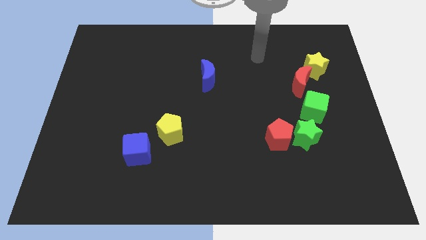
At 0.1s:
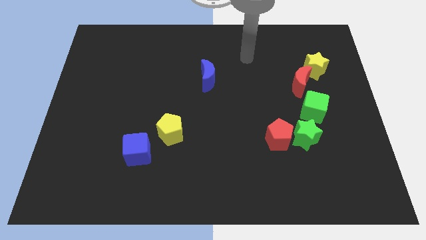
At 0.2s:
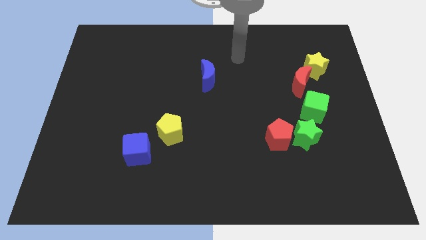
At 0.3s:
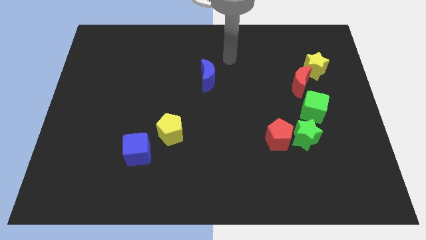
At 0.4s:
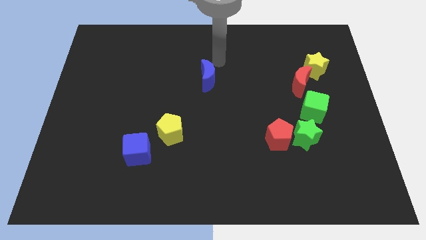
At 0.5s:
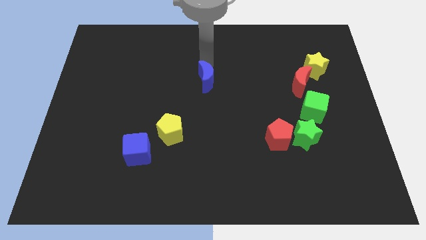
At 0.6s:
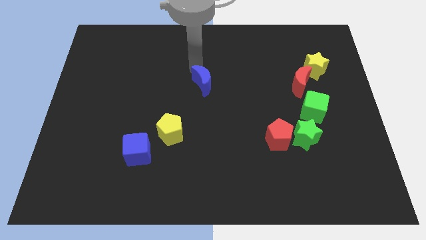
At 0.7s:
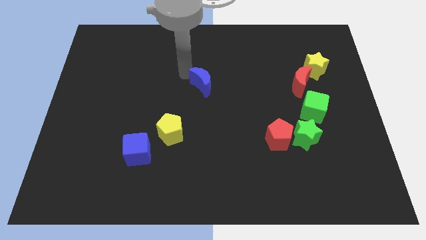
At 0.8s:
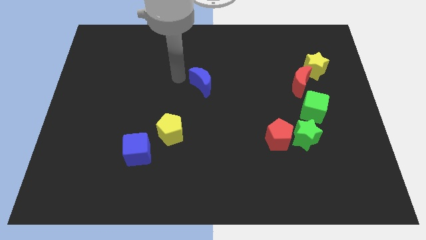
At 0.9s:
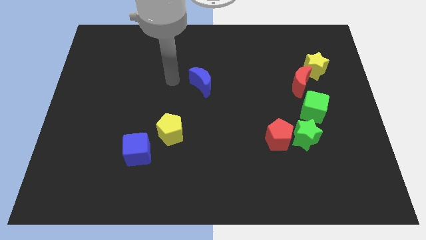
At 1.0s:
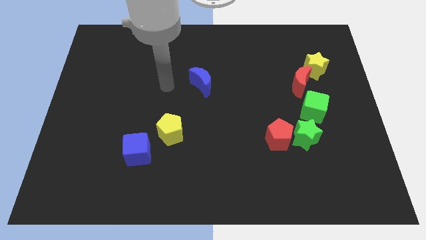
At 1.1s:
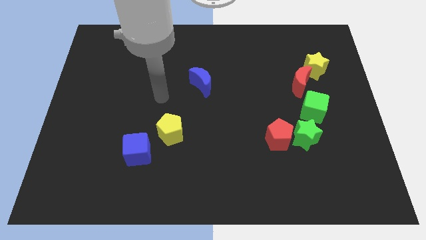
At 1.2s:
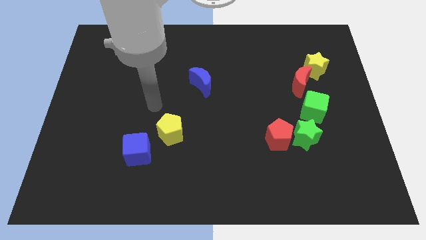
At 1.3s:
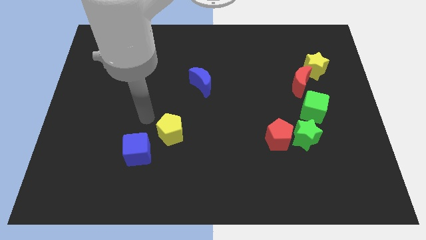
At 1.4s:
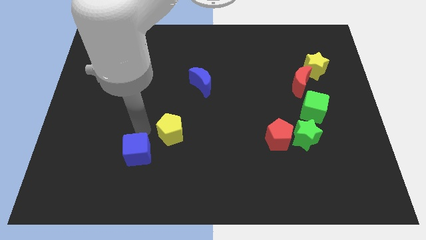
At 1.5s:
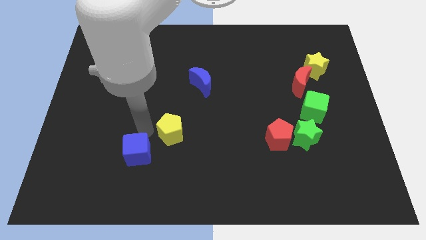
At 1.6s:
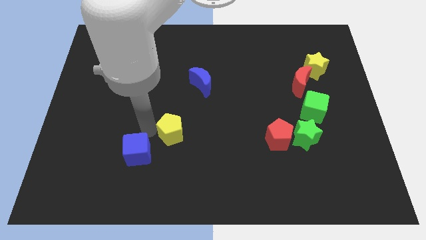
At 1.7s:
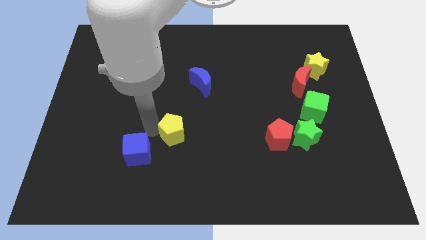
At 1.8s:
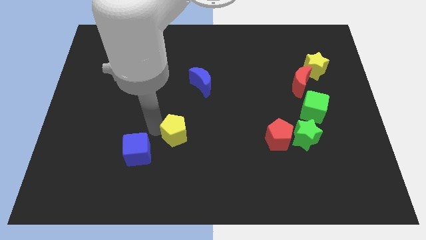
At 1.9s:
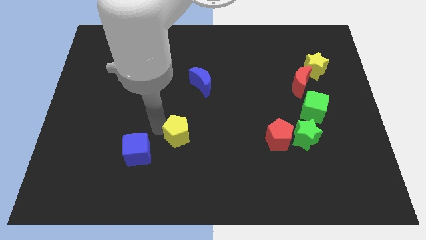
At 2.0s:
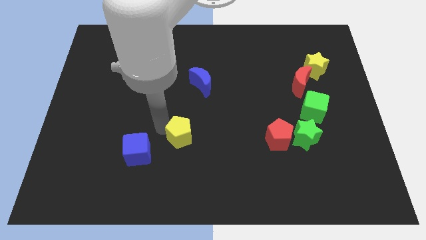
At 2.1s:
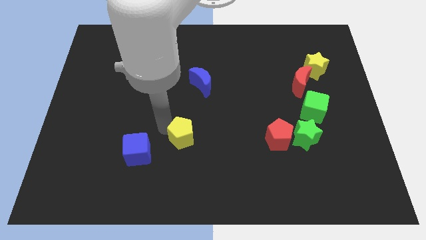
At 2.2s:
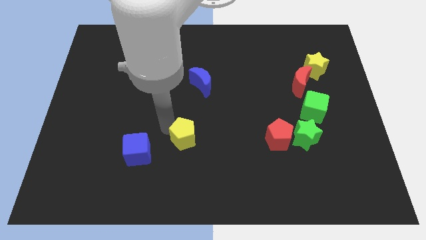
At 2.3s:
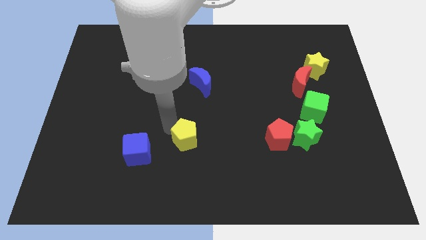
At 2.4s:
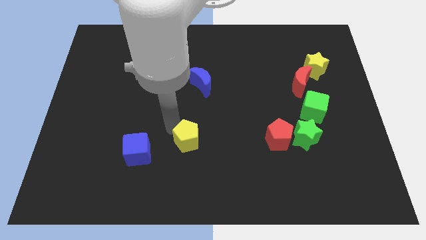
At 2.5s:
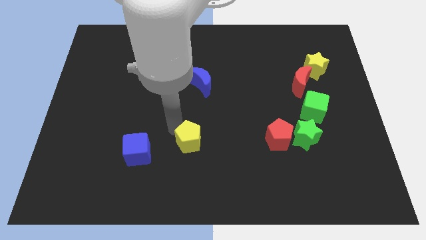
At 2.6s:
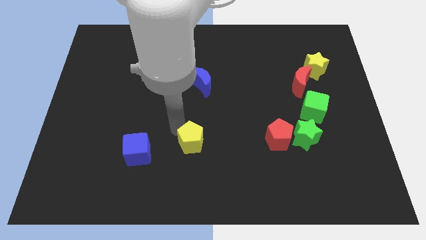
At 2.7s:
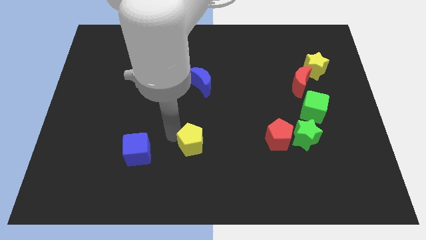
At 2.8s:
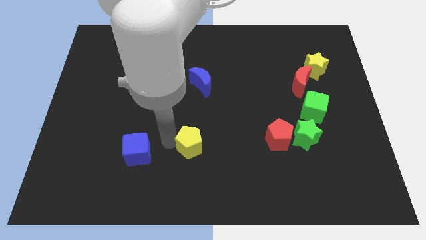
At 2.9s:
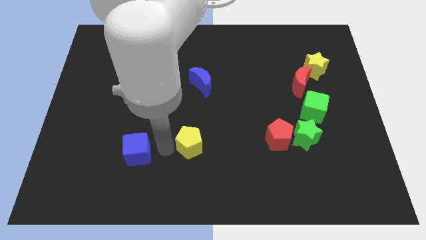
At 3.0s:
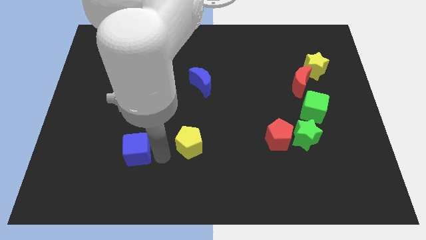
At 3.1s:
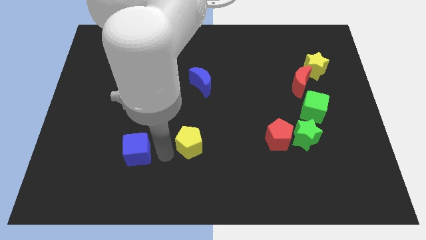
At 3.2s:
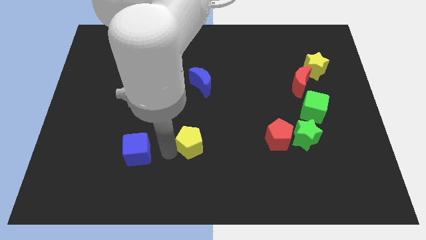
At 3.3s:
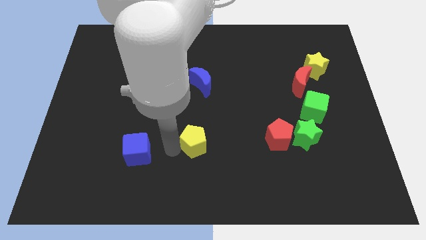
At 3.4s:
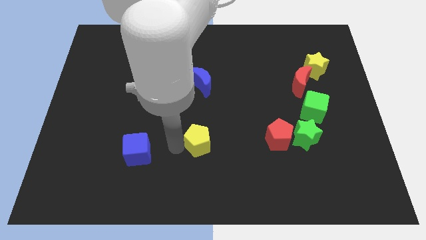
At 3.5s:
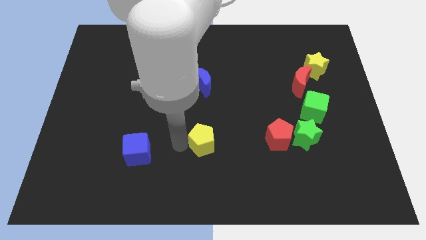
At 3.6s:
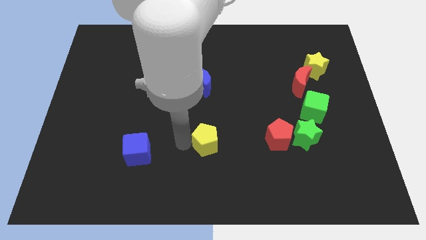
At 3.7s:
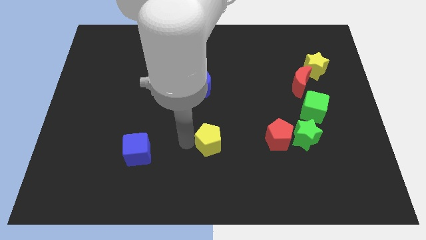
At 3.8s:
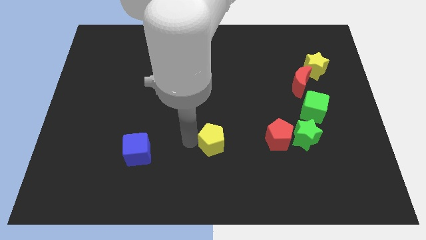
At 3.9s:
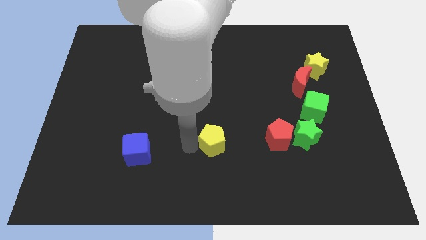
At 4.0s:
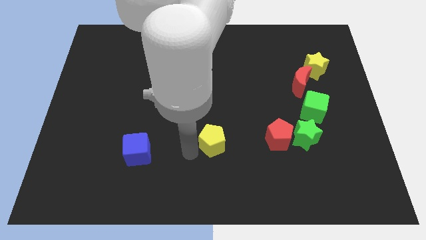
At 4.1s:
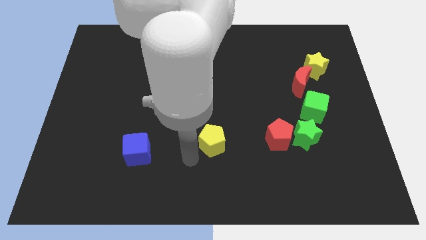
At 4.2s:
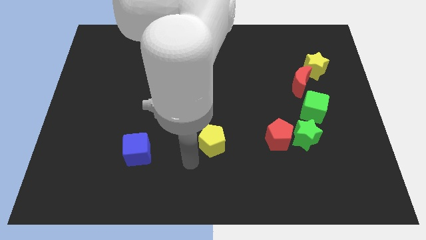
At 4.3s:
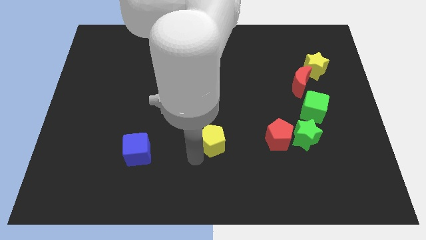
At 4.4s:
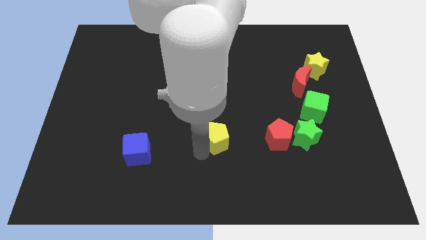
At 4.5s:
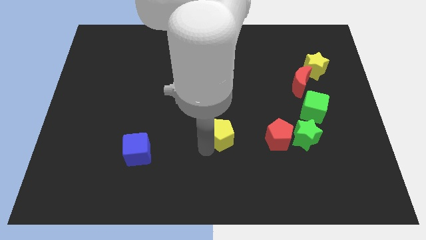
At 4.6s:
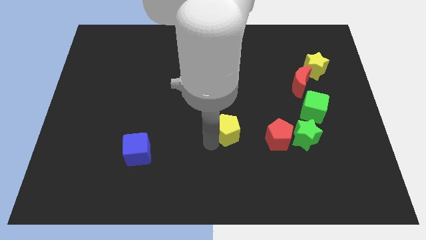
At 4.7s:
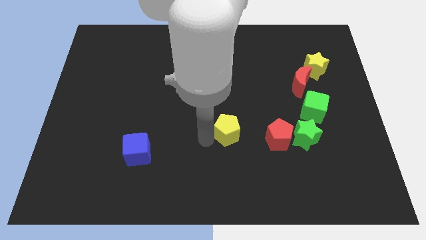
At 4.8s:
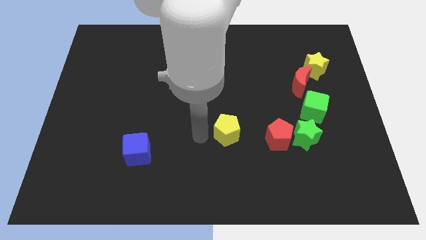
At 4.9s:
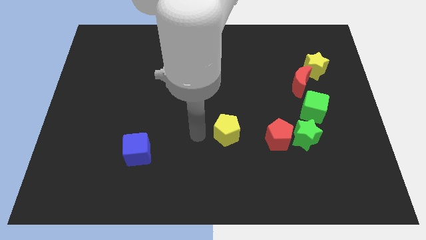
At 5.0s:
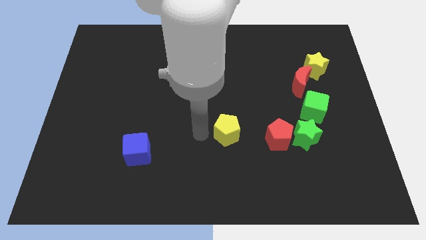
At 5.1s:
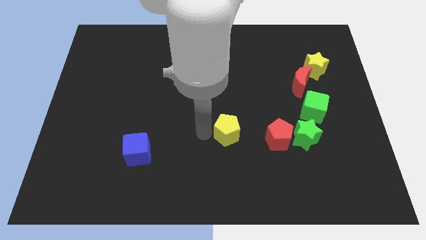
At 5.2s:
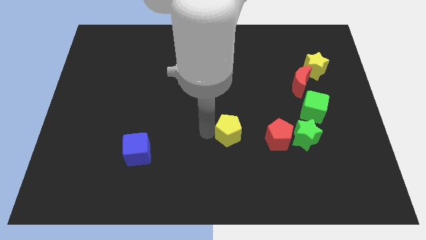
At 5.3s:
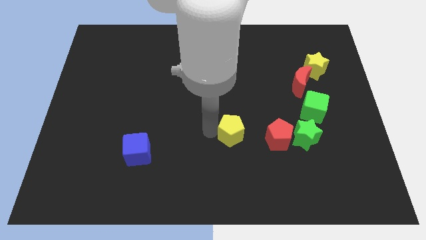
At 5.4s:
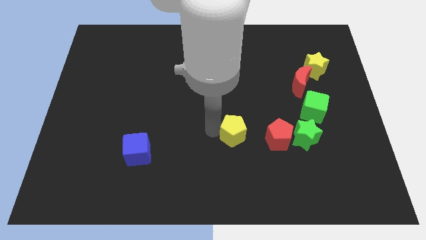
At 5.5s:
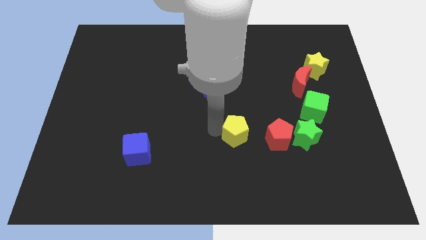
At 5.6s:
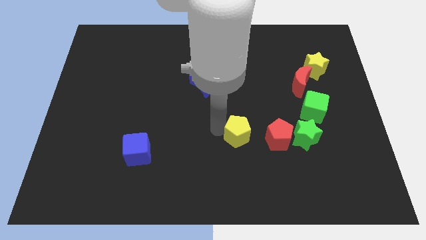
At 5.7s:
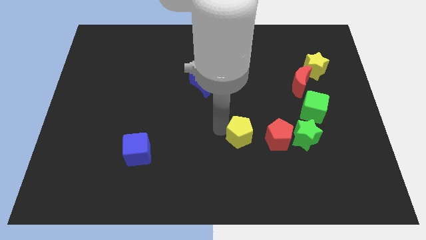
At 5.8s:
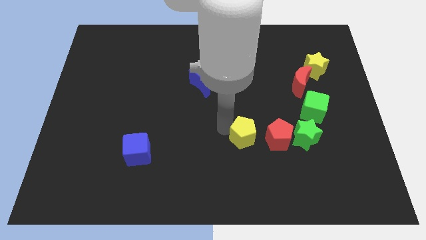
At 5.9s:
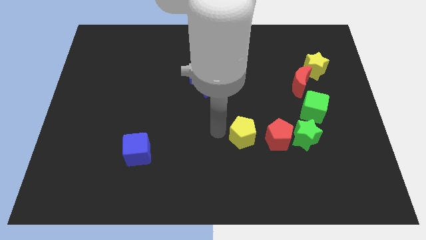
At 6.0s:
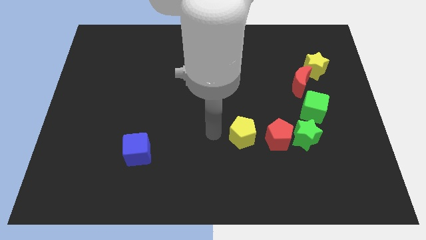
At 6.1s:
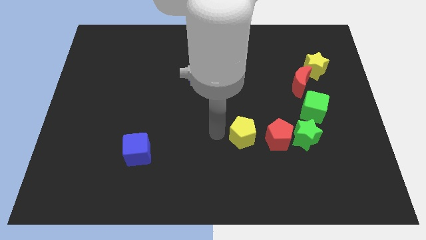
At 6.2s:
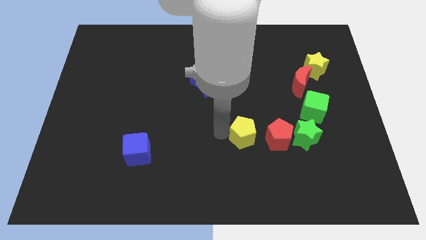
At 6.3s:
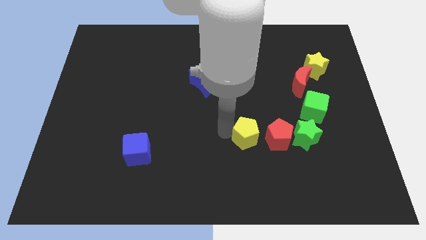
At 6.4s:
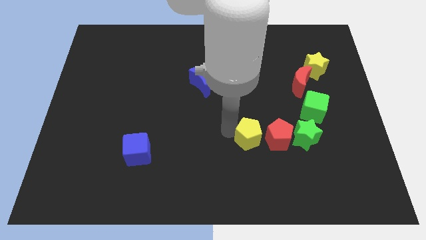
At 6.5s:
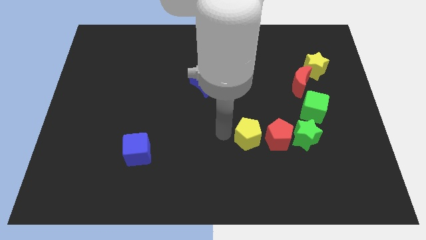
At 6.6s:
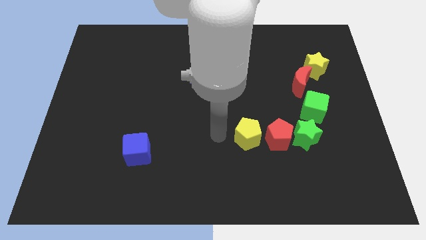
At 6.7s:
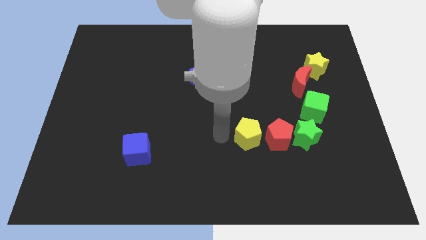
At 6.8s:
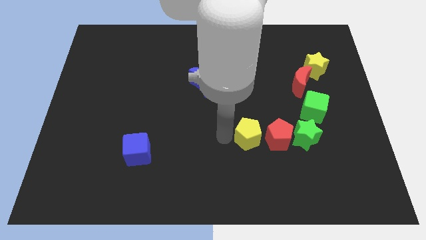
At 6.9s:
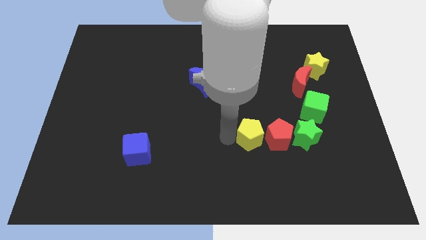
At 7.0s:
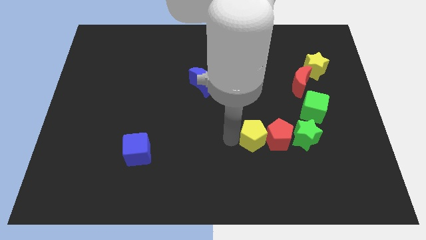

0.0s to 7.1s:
push the yellow pentagon towards the red pentagon
